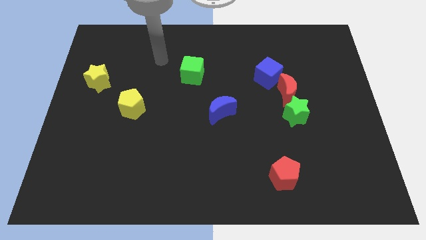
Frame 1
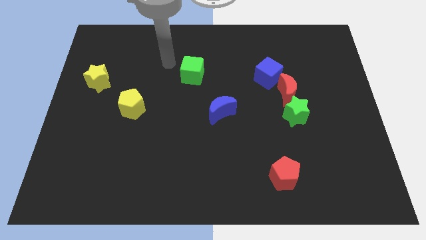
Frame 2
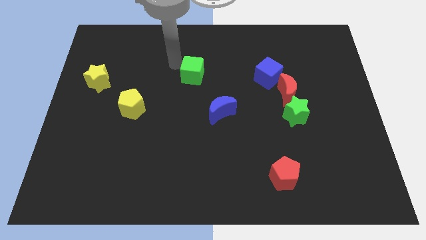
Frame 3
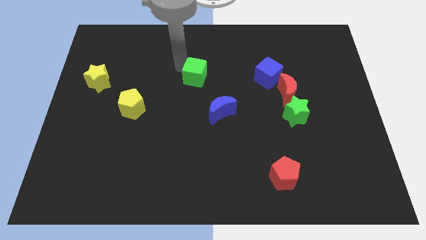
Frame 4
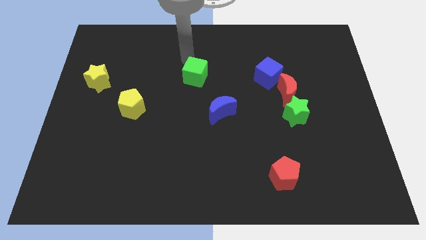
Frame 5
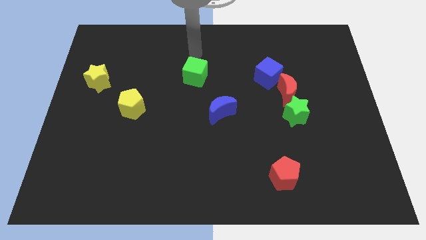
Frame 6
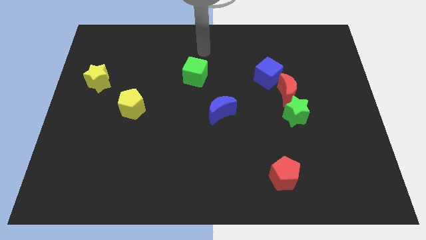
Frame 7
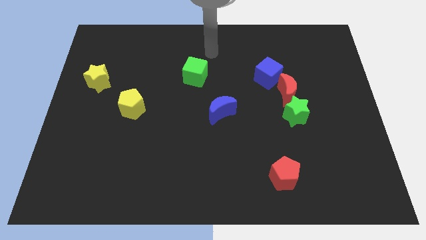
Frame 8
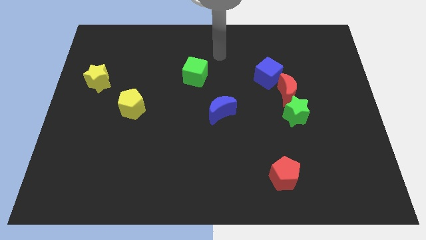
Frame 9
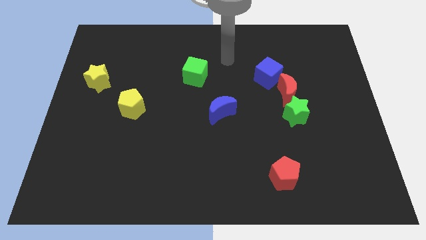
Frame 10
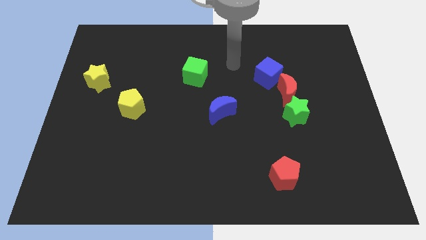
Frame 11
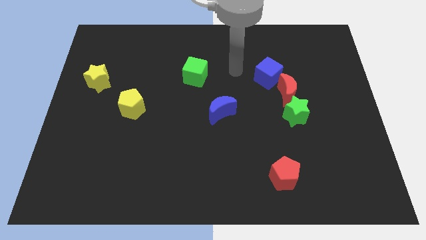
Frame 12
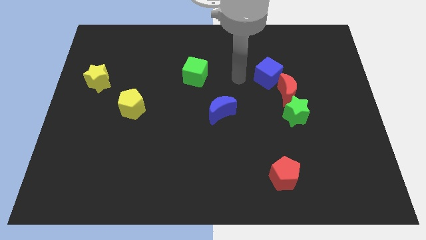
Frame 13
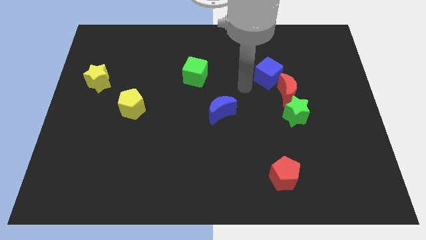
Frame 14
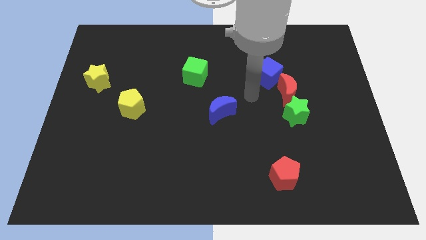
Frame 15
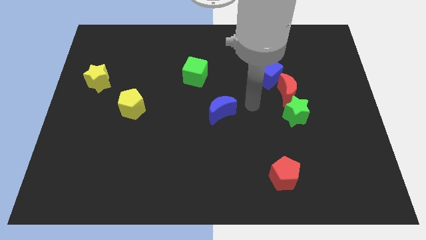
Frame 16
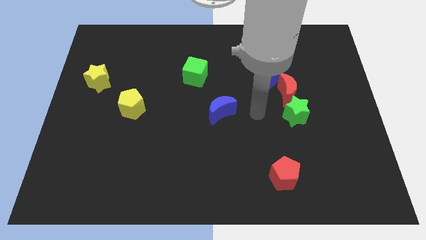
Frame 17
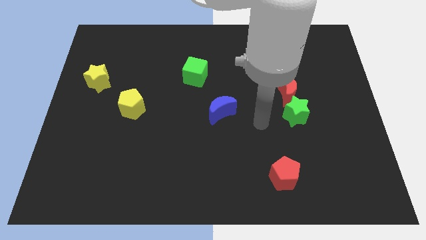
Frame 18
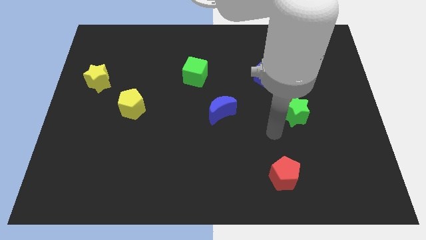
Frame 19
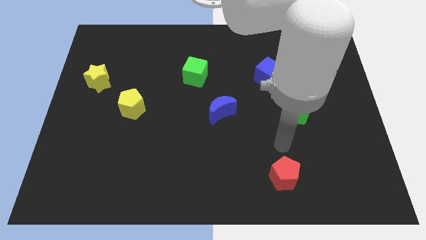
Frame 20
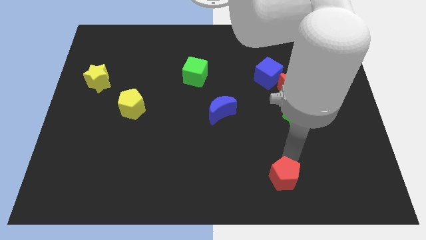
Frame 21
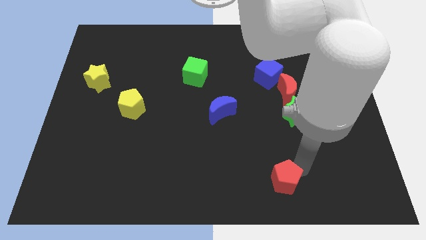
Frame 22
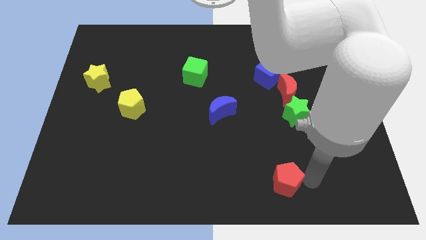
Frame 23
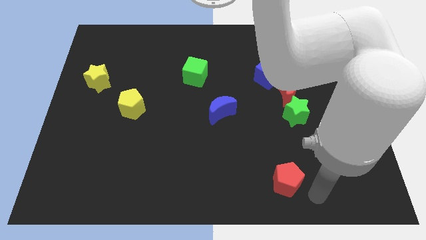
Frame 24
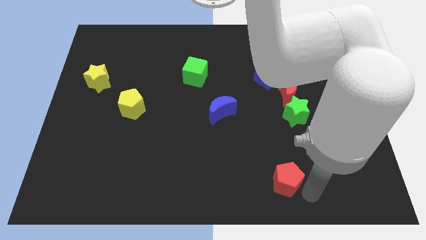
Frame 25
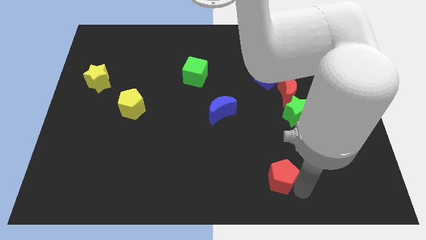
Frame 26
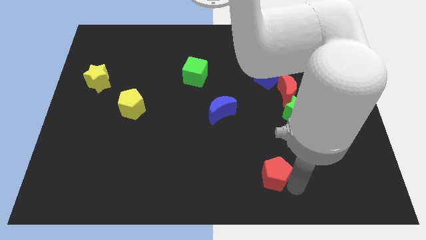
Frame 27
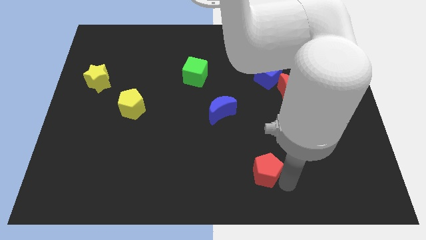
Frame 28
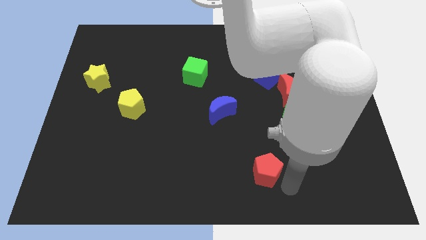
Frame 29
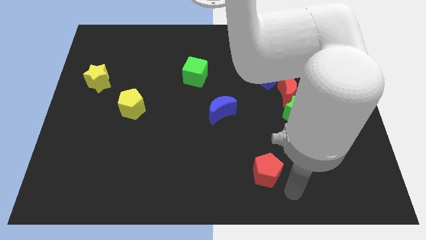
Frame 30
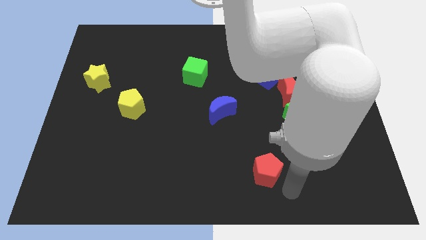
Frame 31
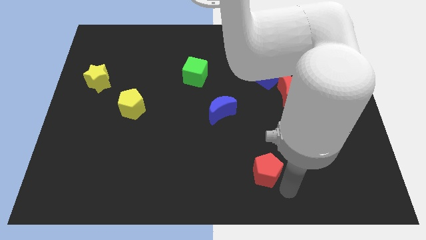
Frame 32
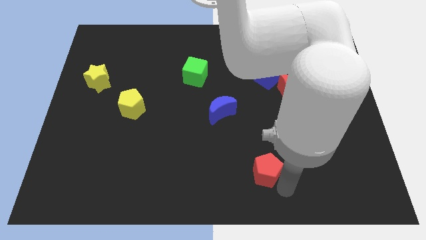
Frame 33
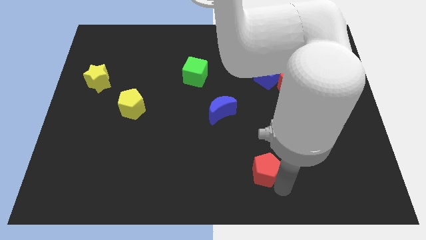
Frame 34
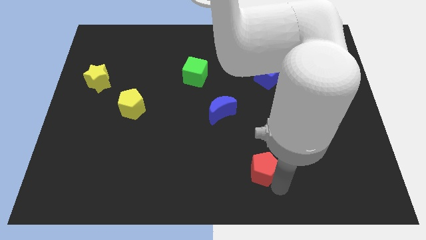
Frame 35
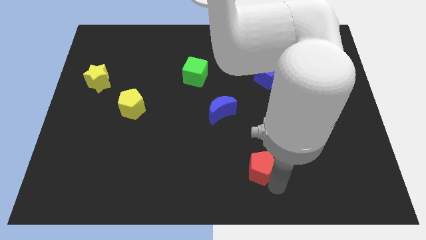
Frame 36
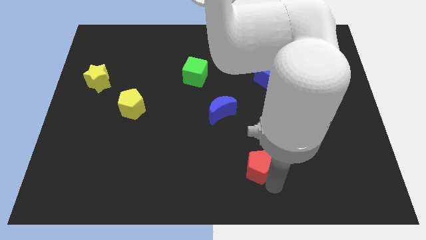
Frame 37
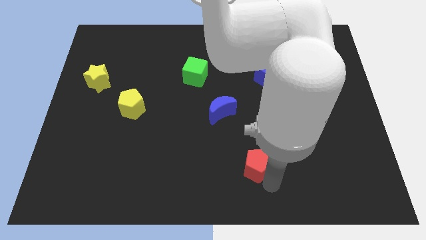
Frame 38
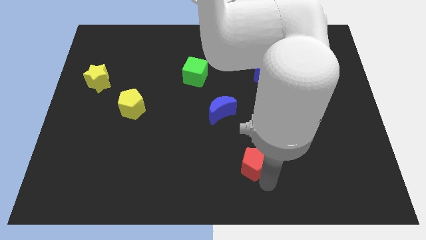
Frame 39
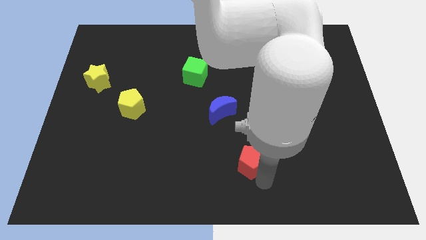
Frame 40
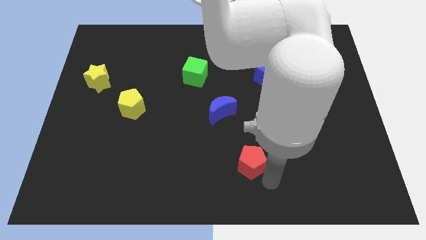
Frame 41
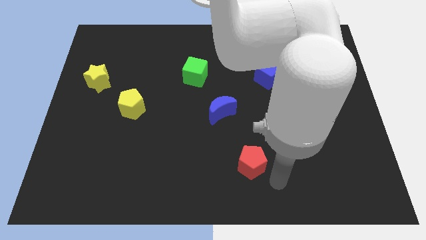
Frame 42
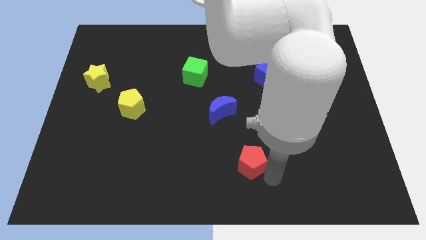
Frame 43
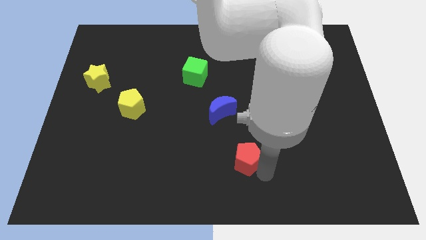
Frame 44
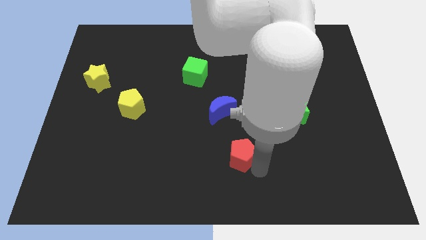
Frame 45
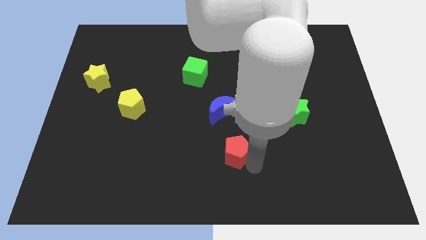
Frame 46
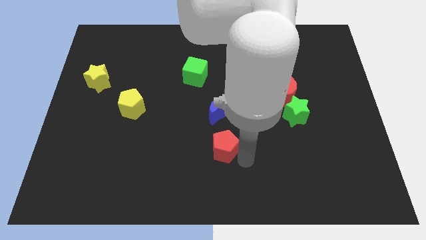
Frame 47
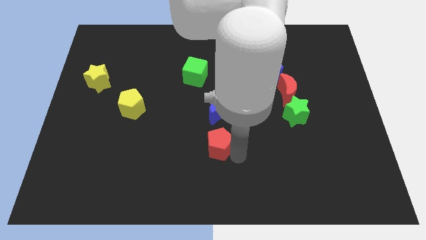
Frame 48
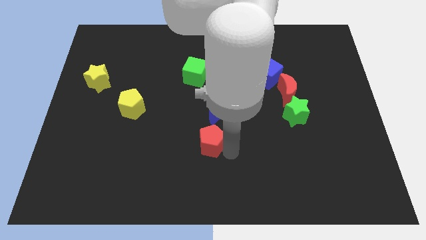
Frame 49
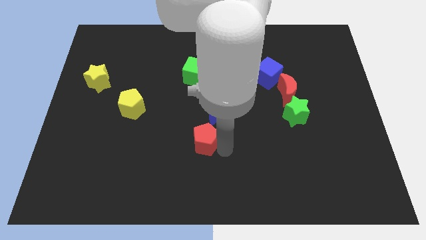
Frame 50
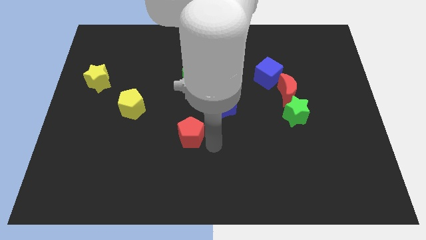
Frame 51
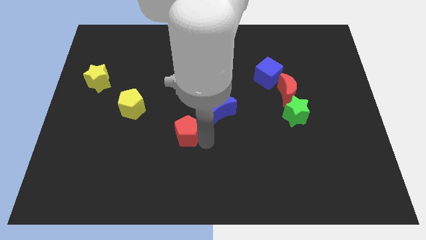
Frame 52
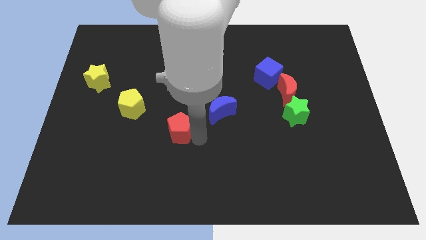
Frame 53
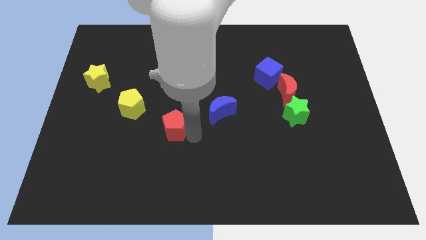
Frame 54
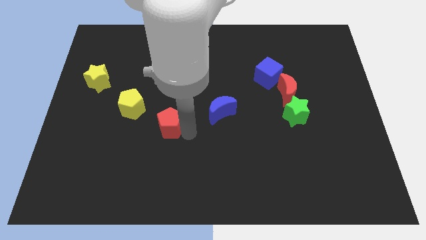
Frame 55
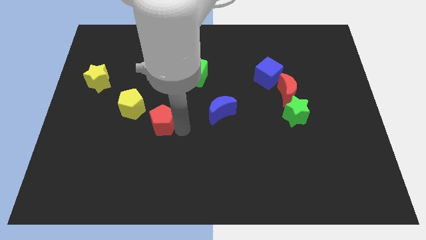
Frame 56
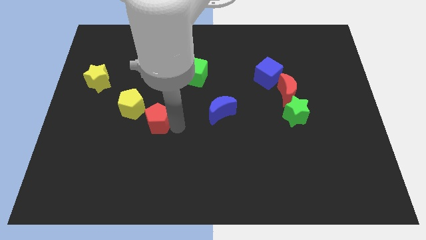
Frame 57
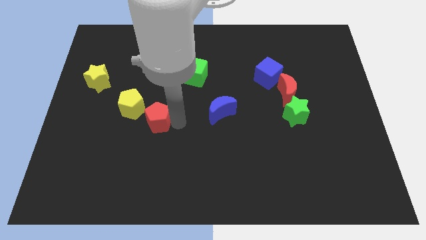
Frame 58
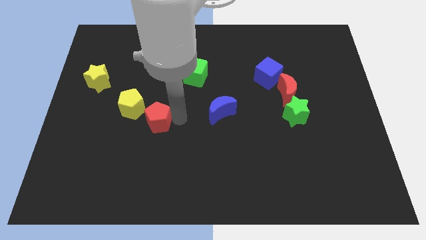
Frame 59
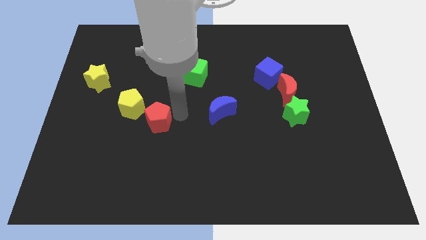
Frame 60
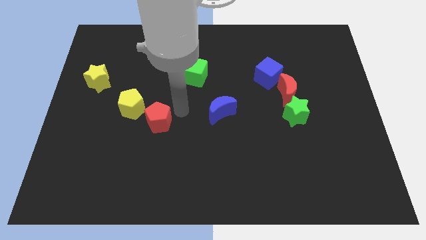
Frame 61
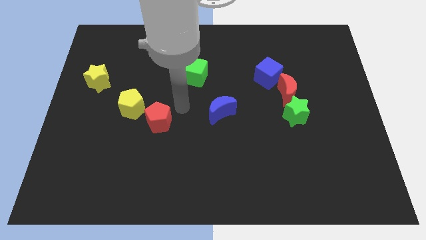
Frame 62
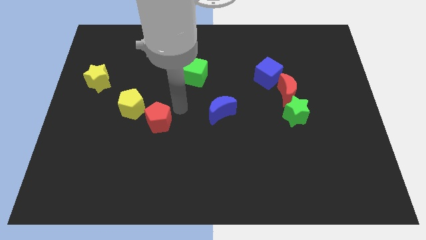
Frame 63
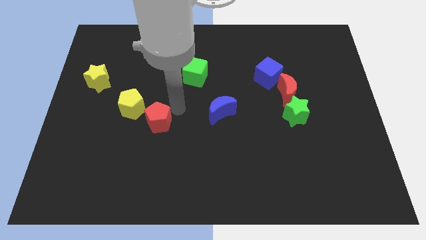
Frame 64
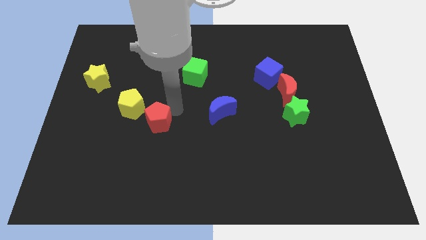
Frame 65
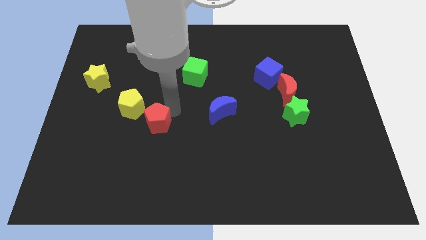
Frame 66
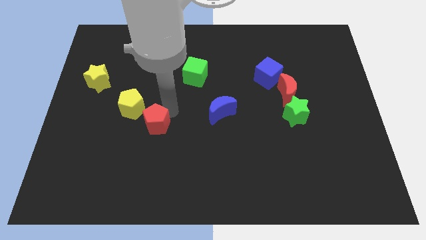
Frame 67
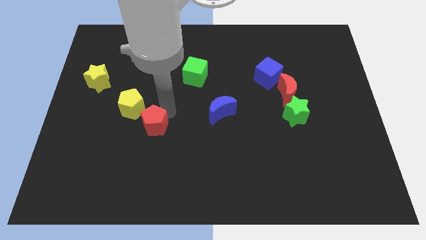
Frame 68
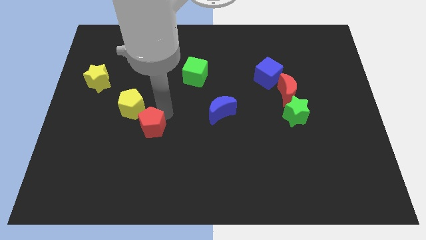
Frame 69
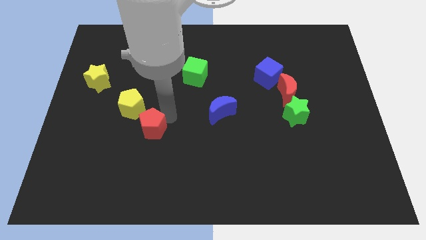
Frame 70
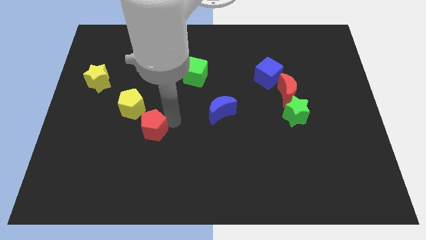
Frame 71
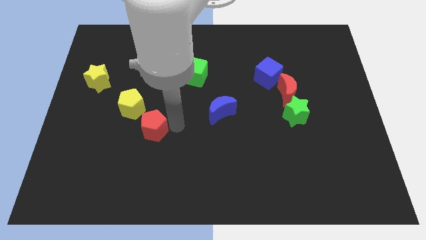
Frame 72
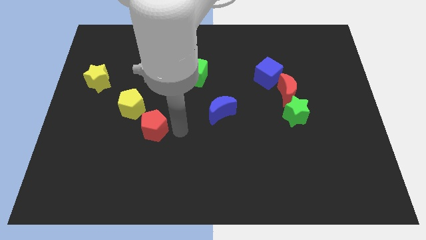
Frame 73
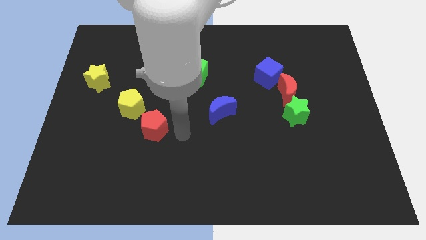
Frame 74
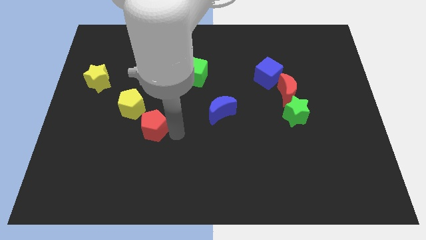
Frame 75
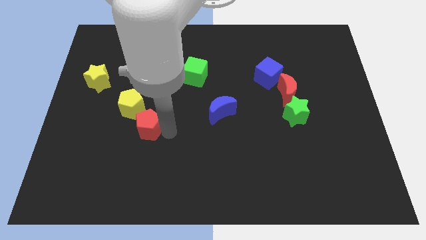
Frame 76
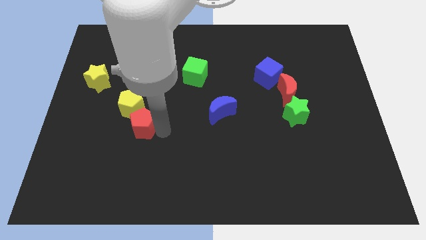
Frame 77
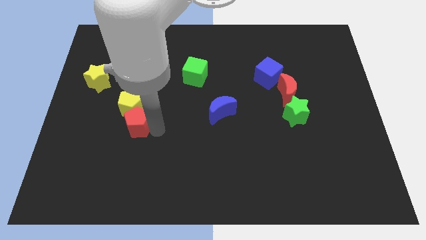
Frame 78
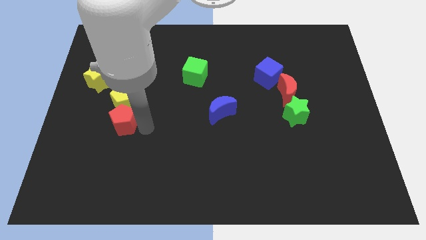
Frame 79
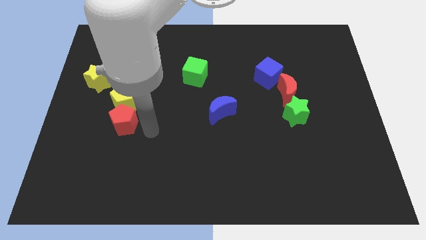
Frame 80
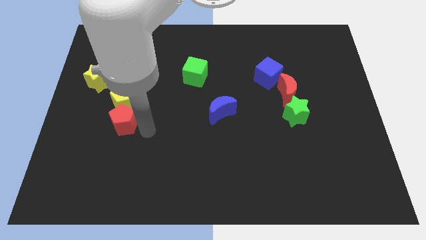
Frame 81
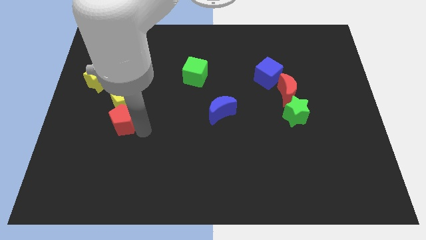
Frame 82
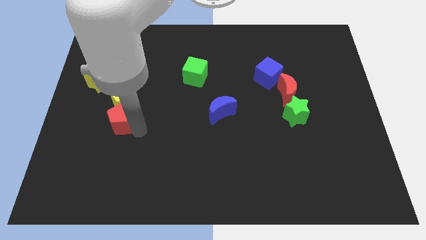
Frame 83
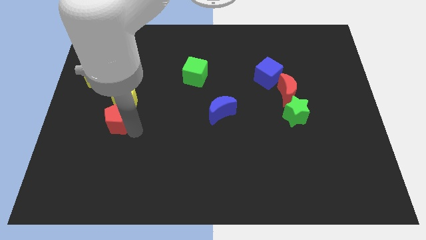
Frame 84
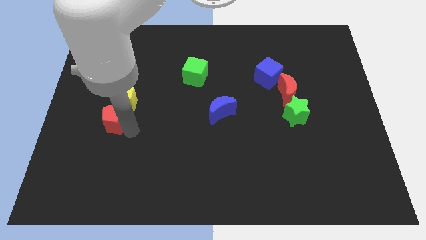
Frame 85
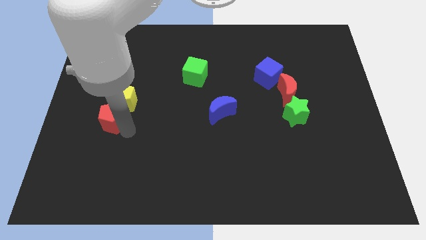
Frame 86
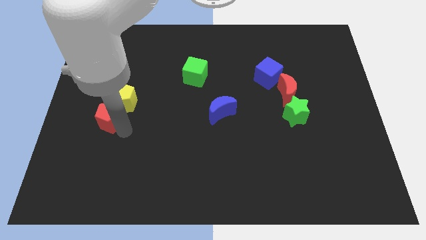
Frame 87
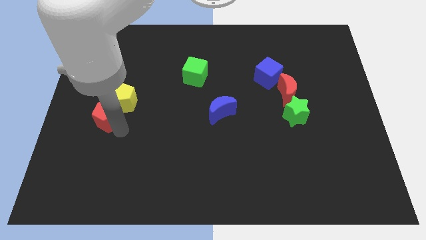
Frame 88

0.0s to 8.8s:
put the red pentagon to the bottom side of the yellow star
